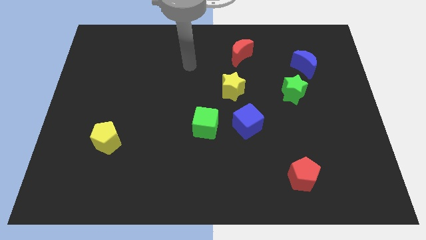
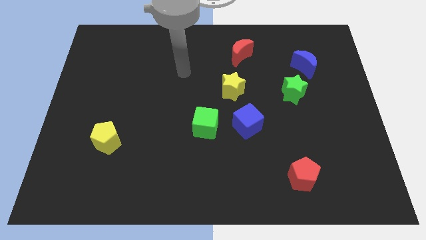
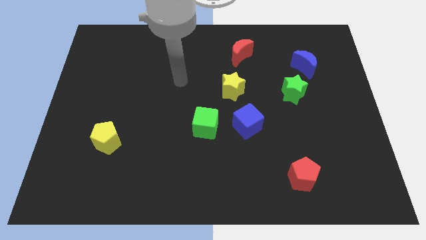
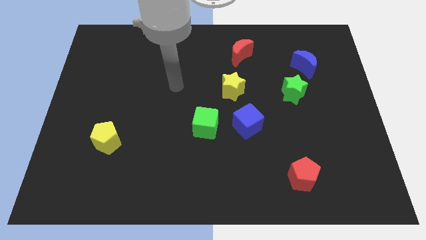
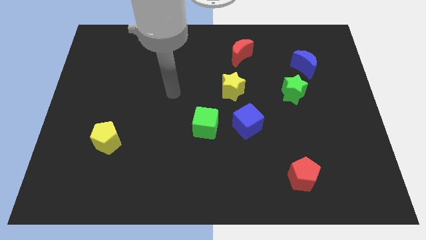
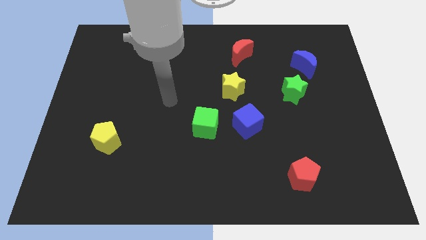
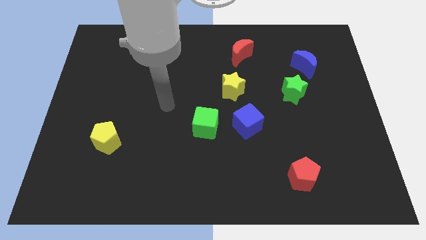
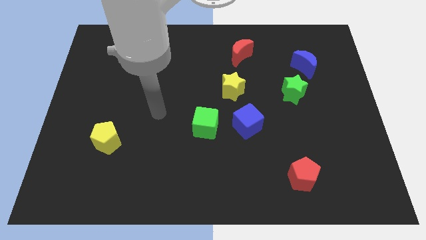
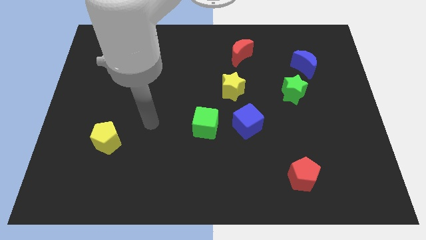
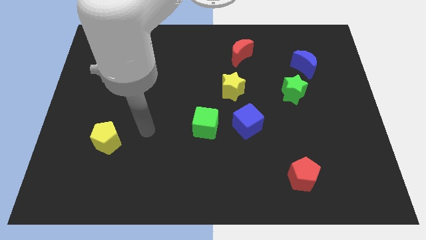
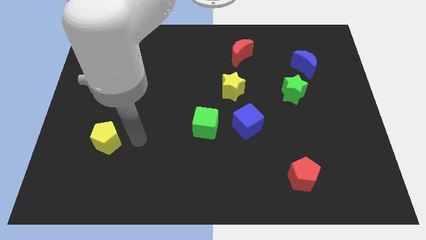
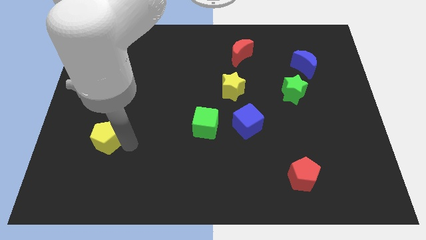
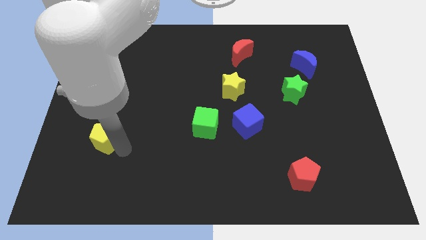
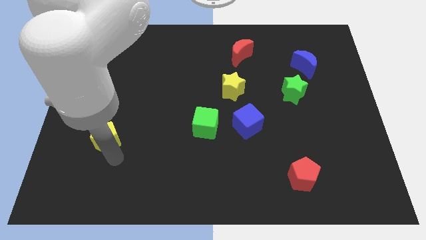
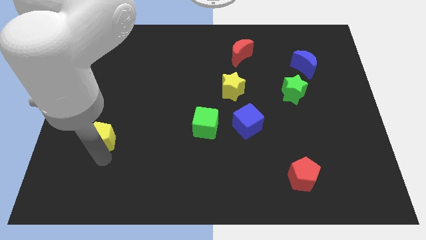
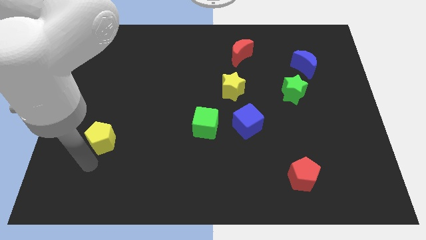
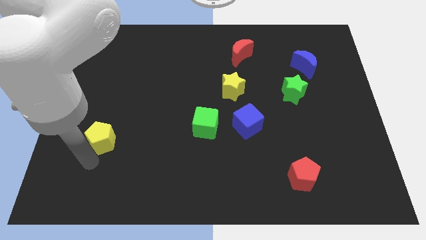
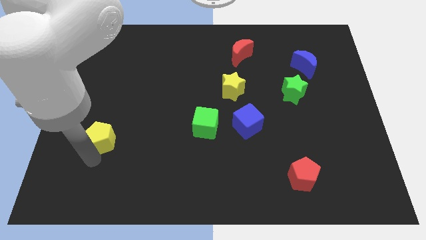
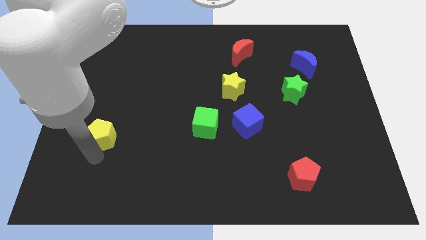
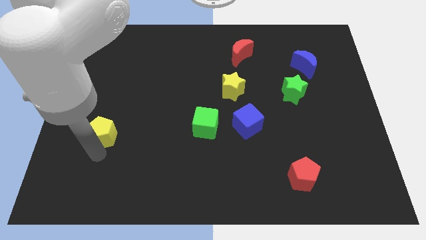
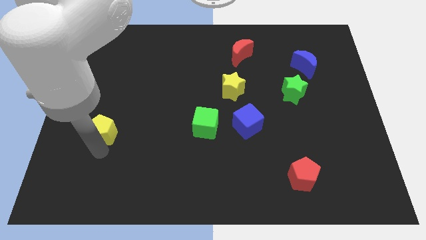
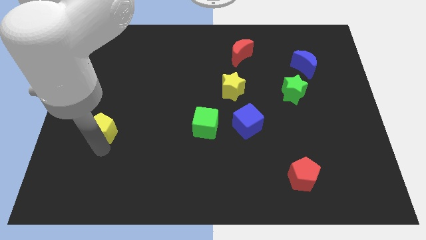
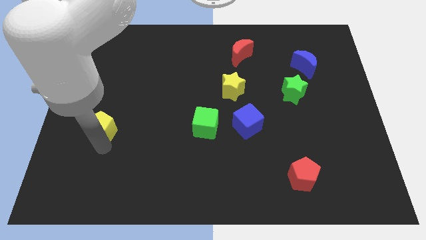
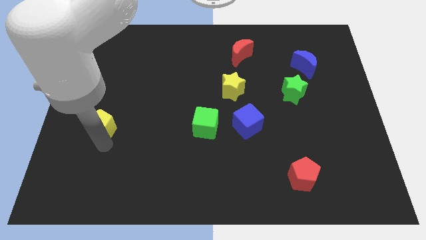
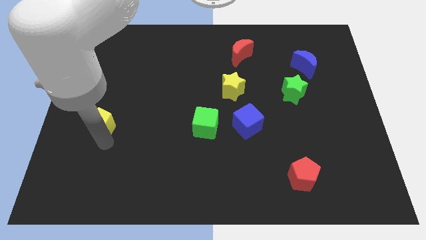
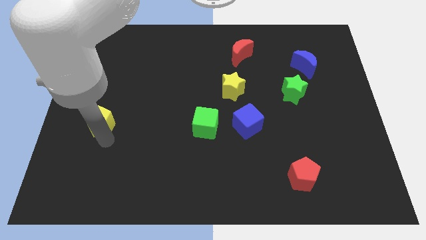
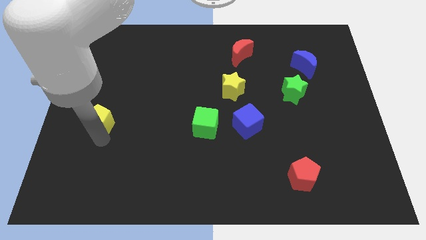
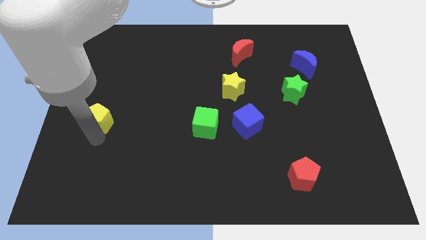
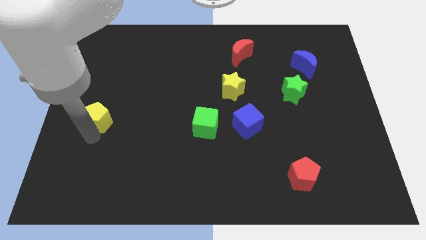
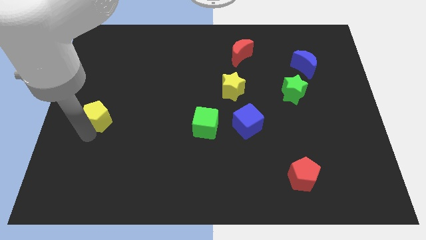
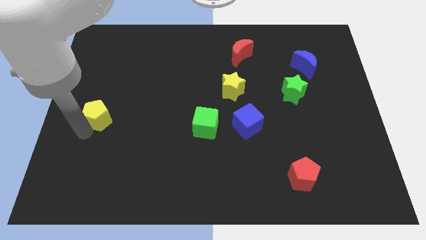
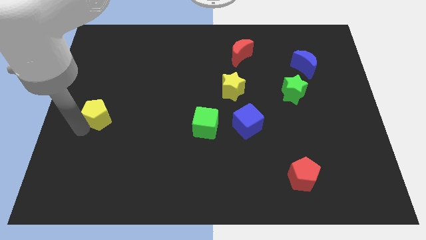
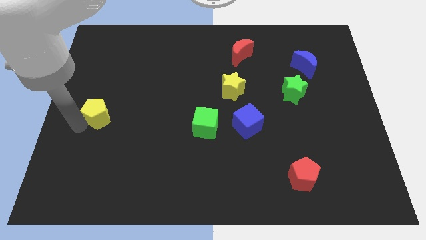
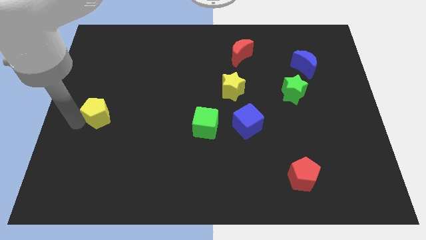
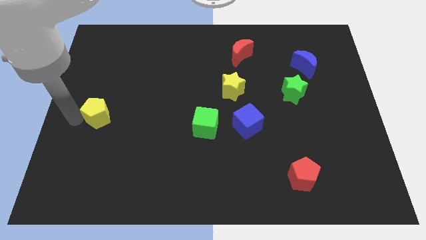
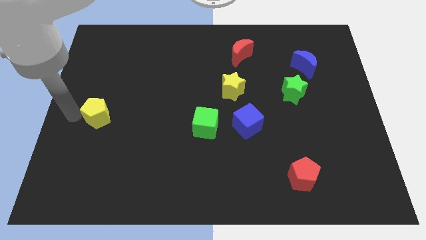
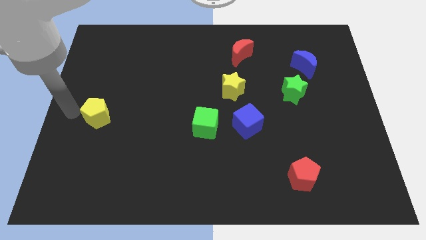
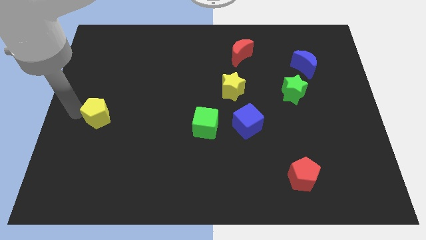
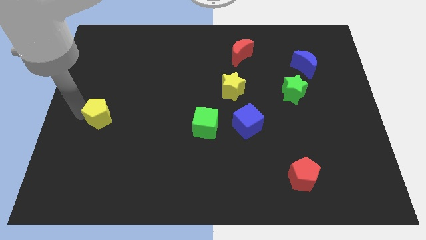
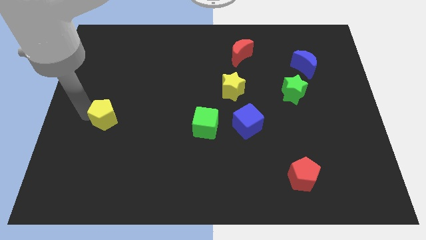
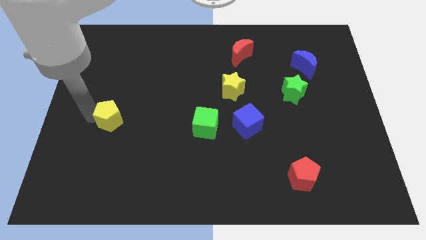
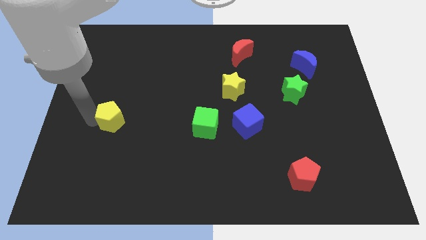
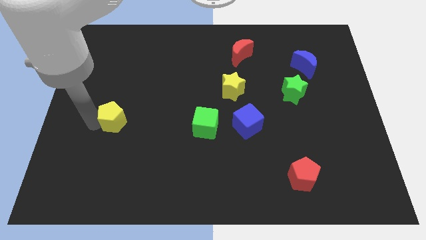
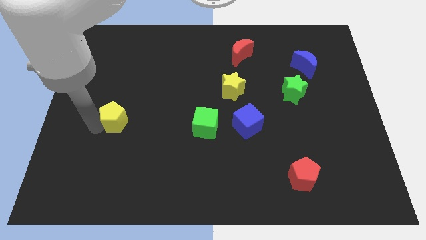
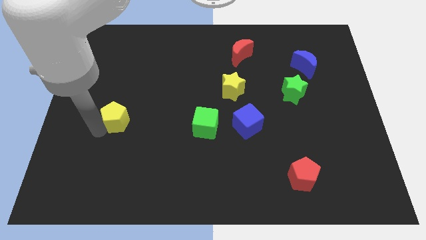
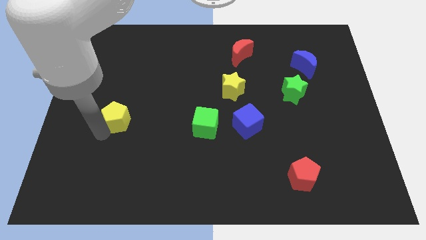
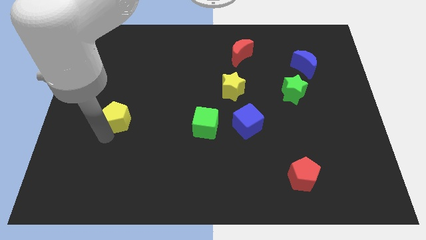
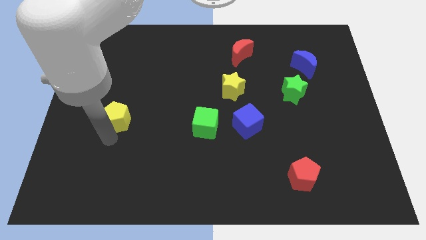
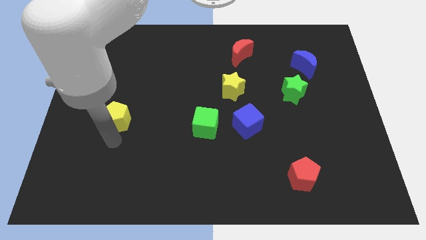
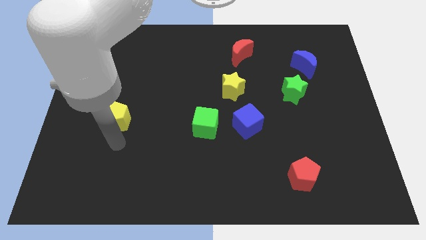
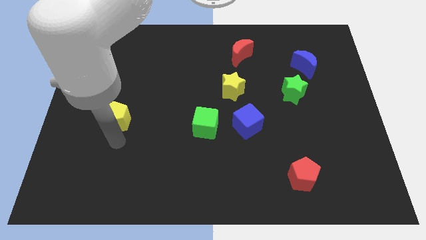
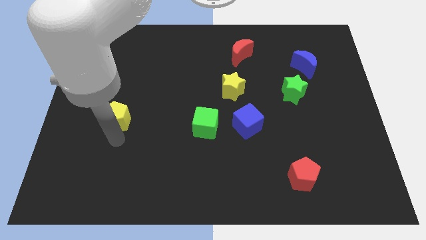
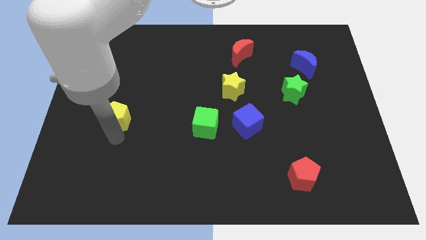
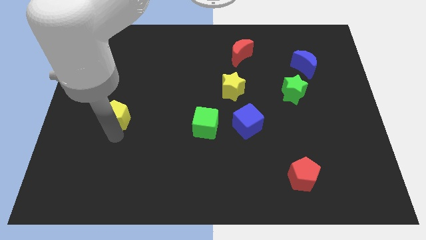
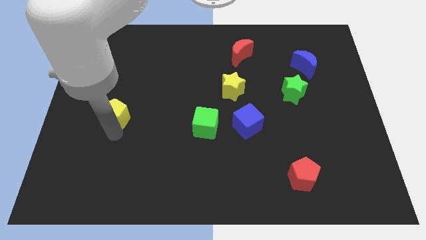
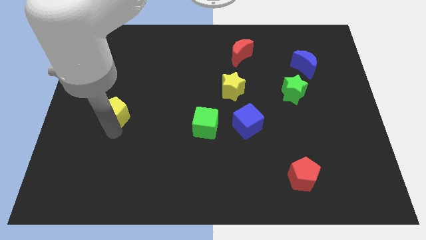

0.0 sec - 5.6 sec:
move the yellow pentagon a little bit up

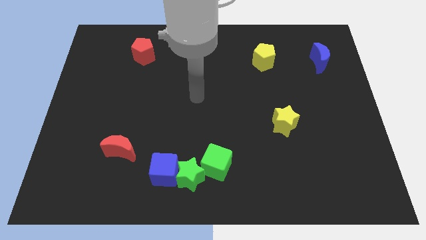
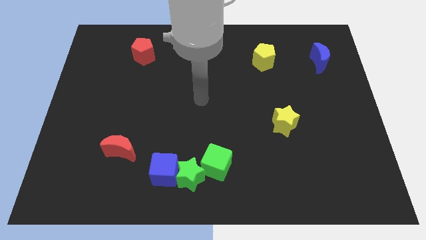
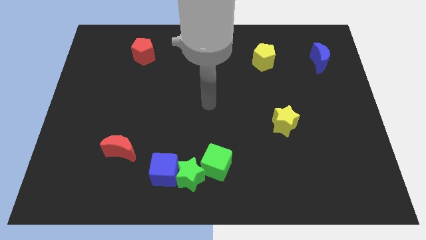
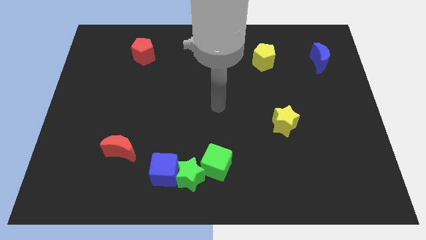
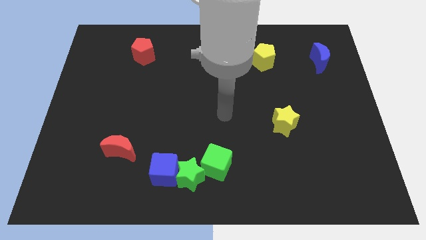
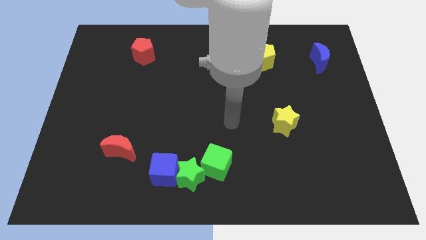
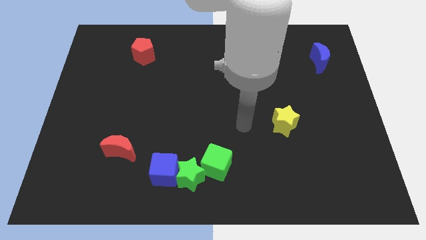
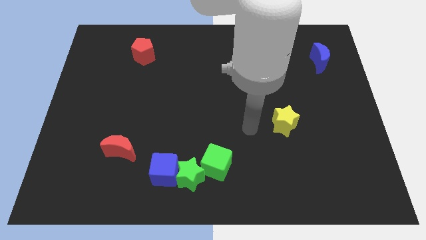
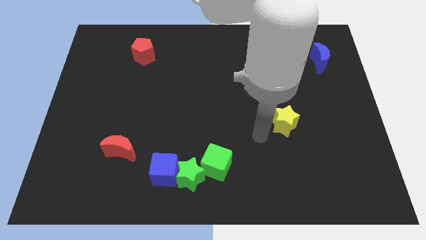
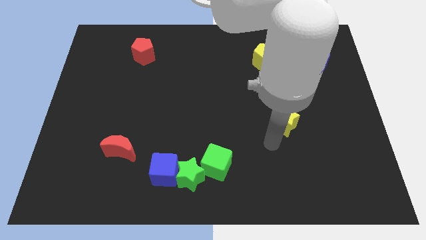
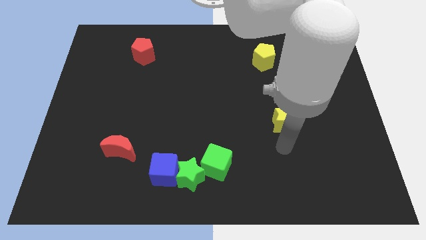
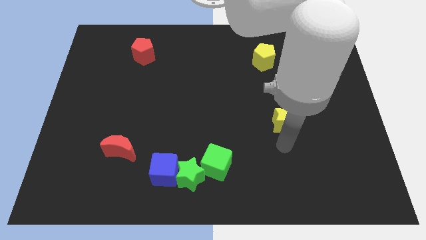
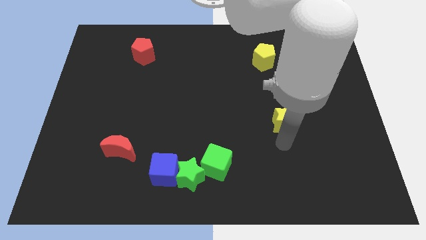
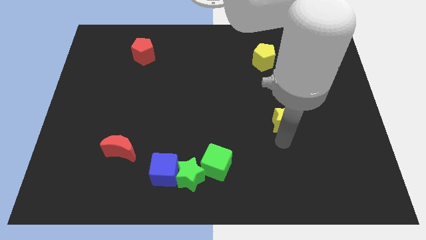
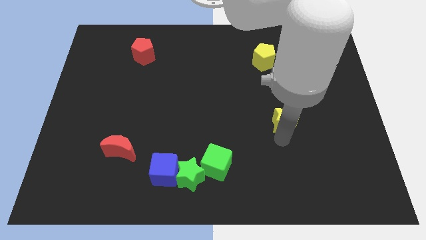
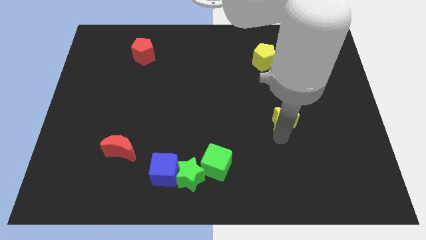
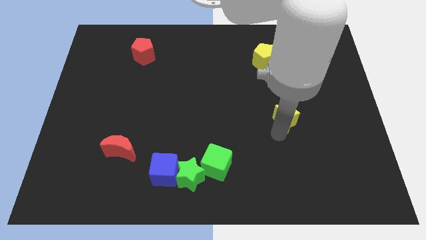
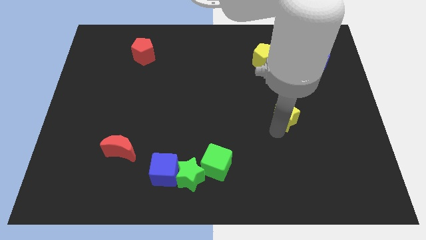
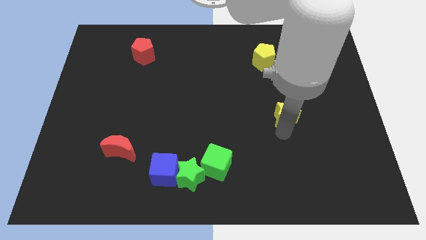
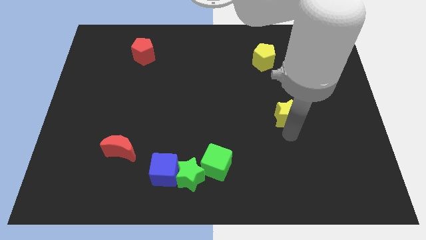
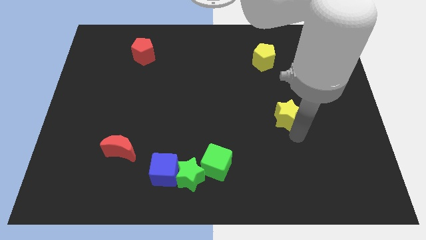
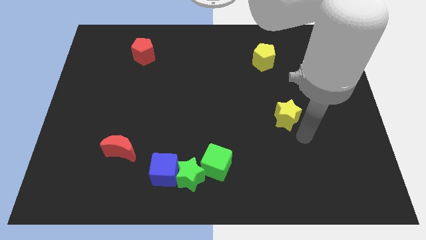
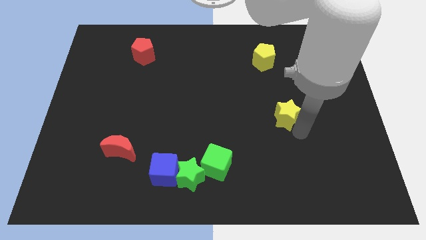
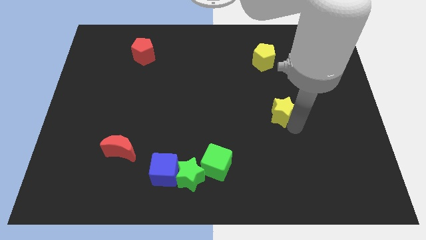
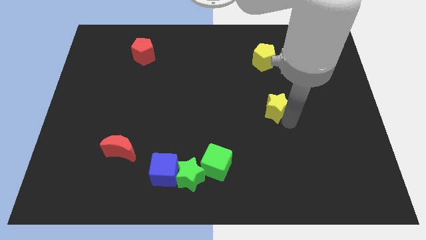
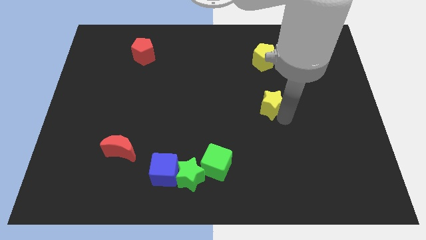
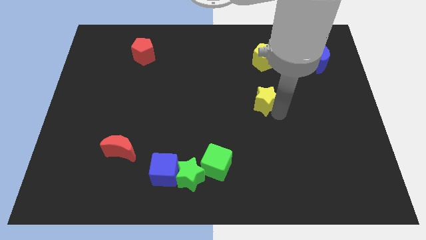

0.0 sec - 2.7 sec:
push the yellow star up and to the left diagonally slightly
